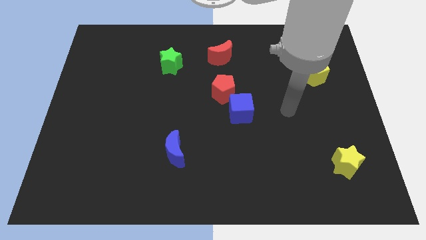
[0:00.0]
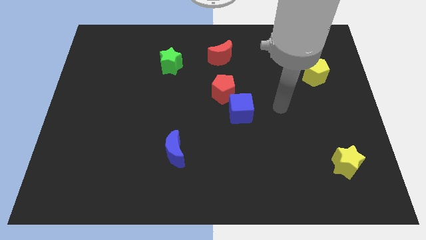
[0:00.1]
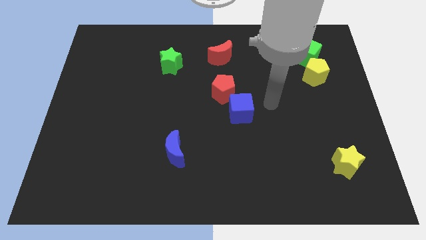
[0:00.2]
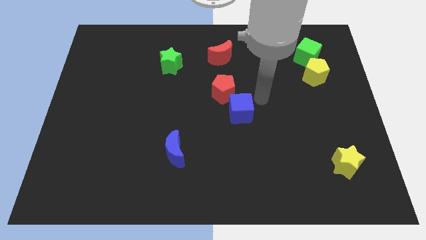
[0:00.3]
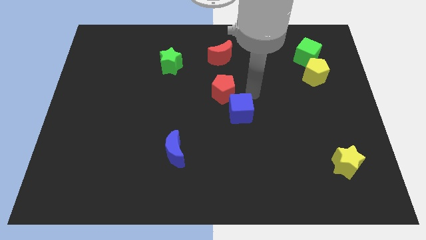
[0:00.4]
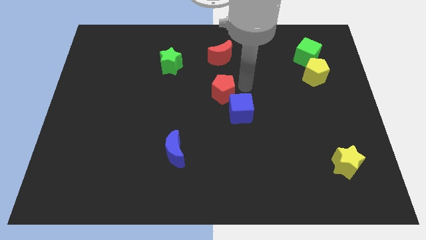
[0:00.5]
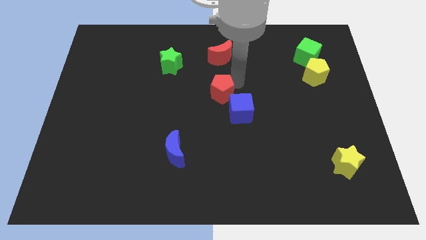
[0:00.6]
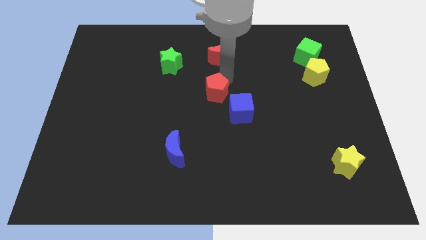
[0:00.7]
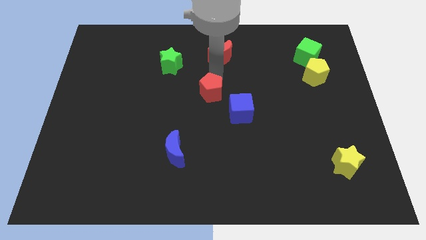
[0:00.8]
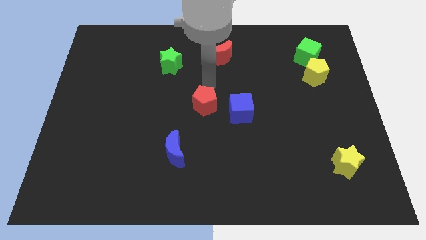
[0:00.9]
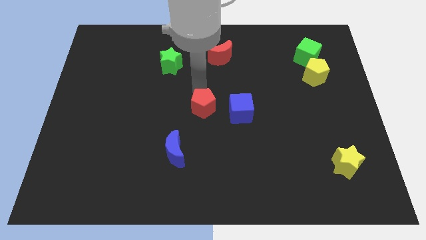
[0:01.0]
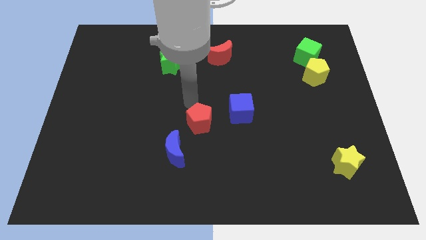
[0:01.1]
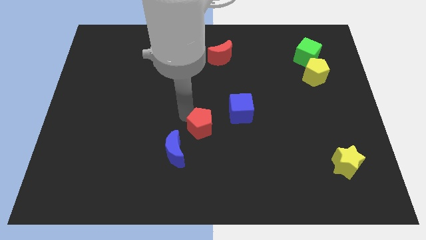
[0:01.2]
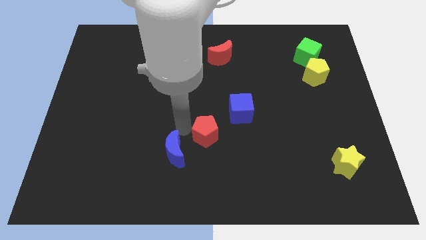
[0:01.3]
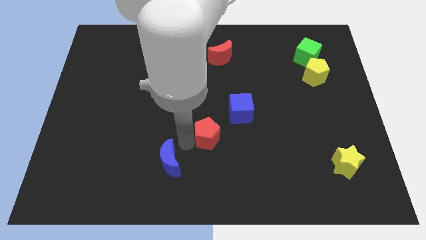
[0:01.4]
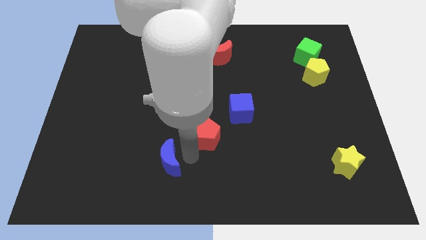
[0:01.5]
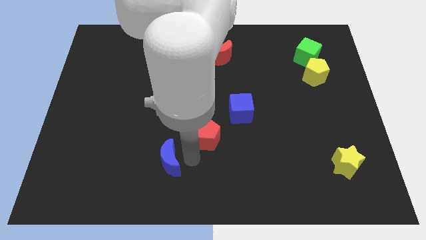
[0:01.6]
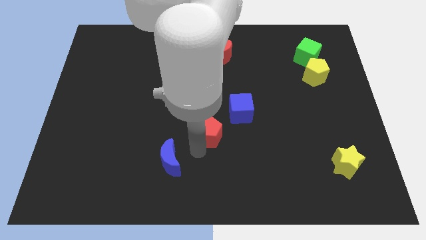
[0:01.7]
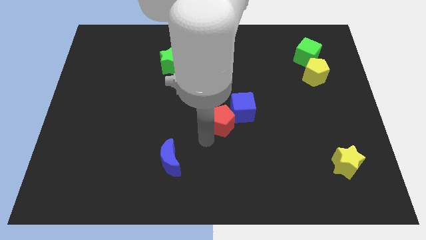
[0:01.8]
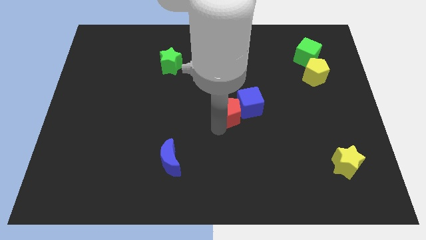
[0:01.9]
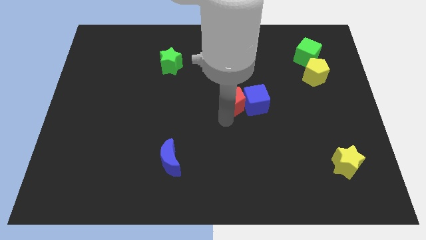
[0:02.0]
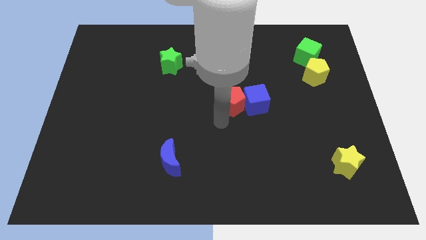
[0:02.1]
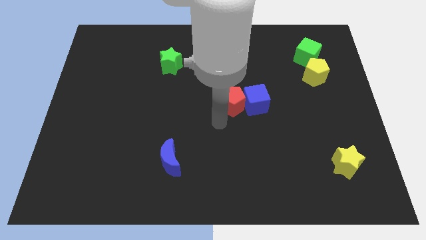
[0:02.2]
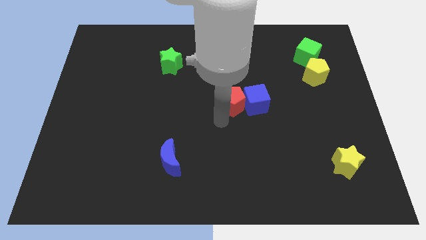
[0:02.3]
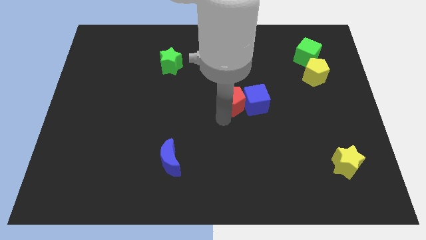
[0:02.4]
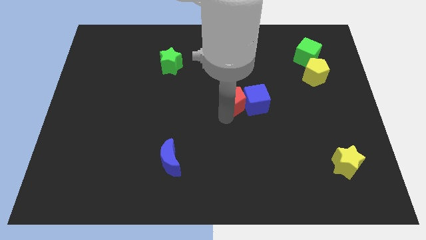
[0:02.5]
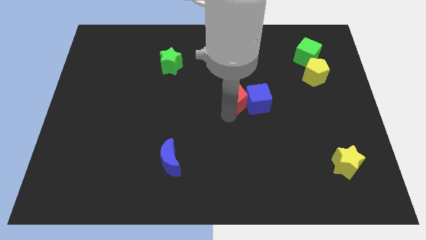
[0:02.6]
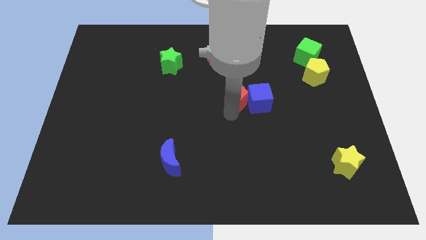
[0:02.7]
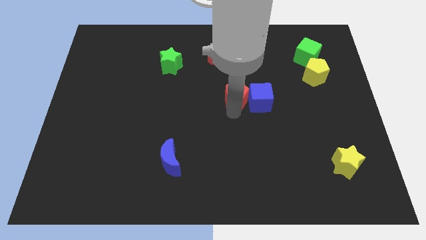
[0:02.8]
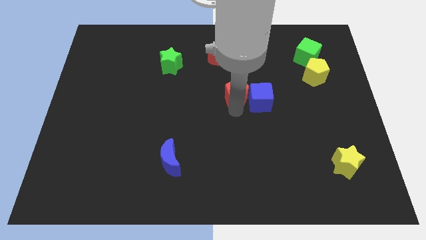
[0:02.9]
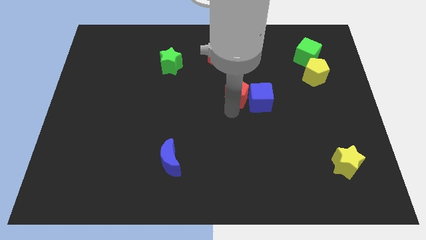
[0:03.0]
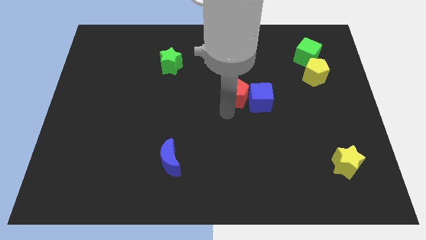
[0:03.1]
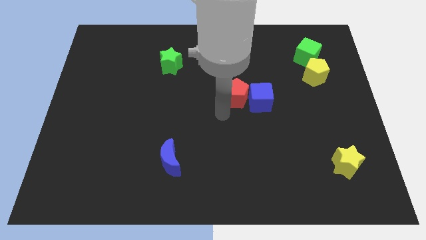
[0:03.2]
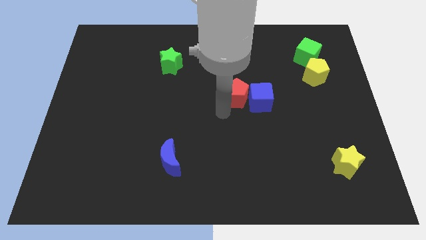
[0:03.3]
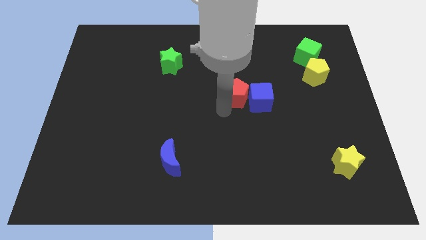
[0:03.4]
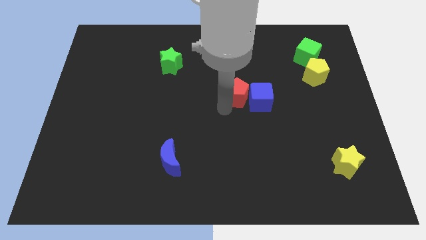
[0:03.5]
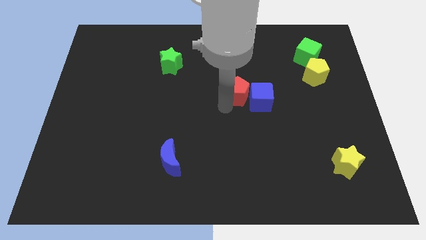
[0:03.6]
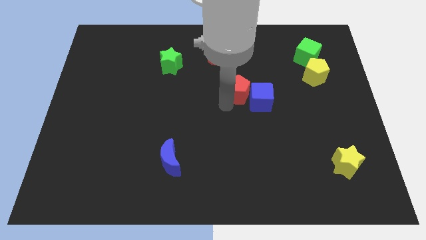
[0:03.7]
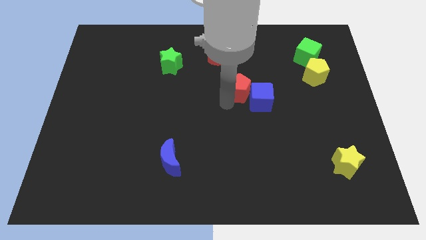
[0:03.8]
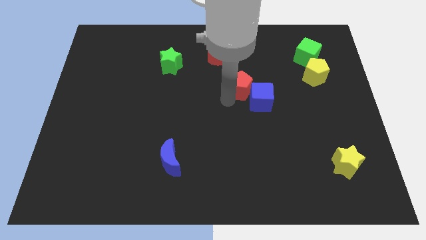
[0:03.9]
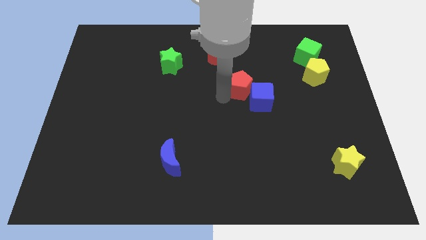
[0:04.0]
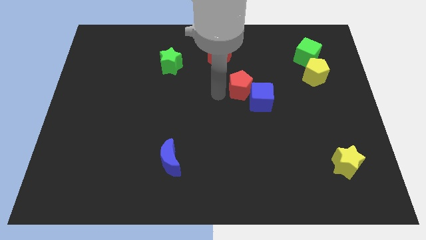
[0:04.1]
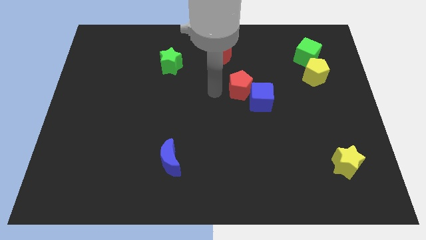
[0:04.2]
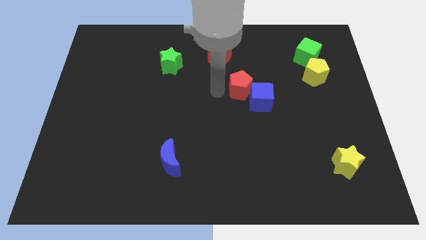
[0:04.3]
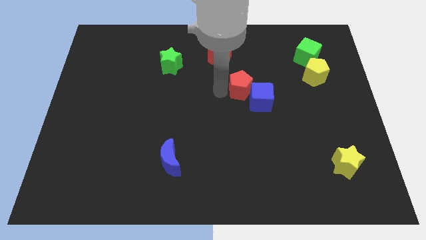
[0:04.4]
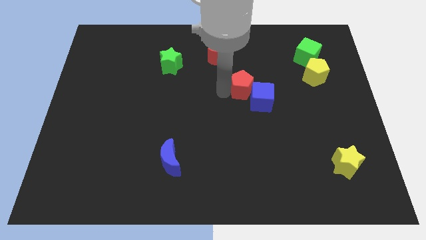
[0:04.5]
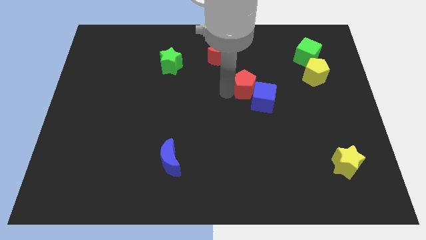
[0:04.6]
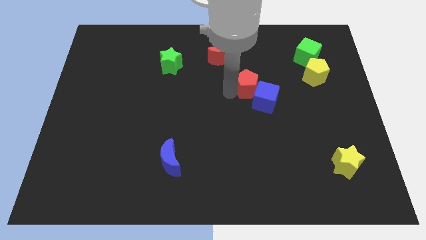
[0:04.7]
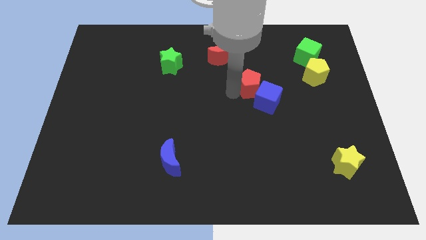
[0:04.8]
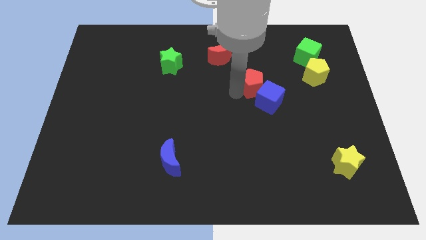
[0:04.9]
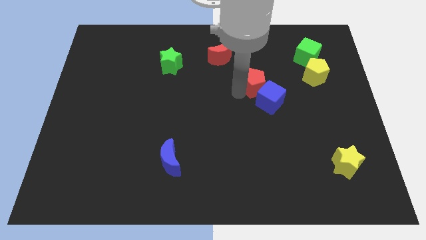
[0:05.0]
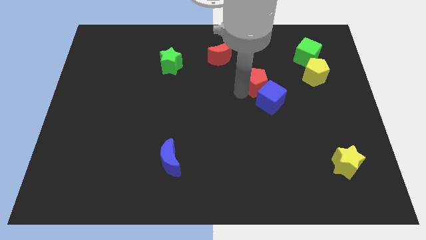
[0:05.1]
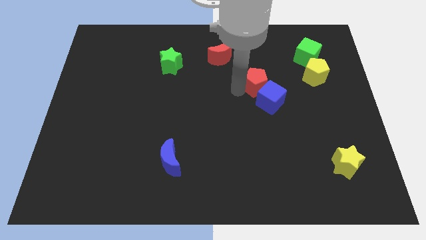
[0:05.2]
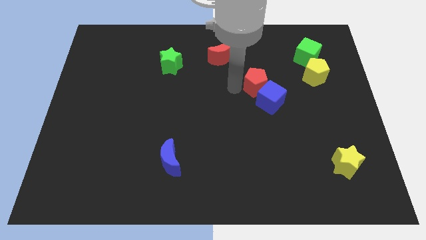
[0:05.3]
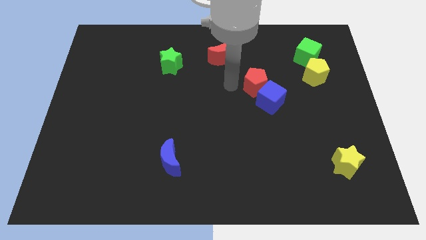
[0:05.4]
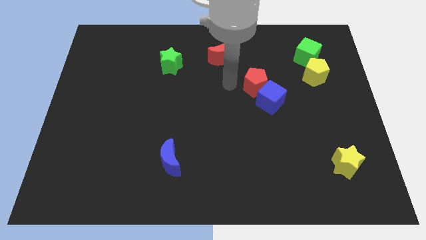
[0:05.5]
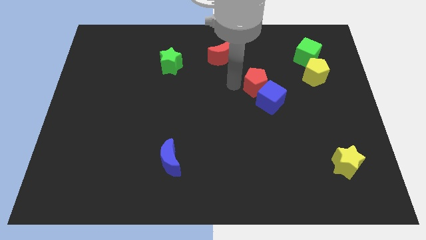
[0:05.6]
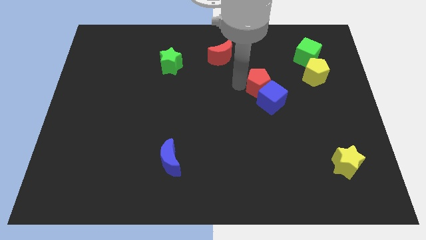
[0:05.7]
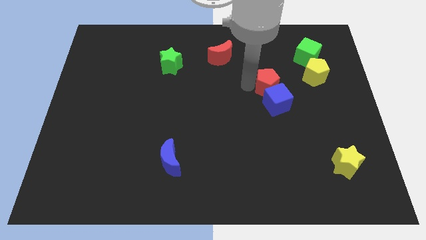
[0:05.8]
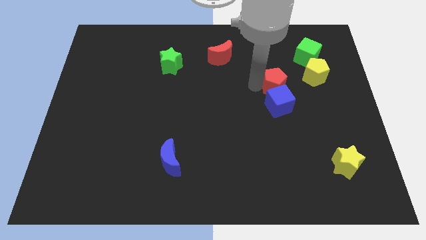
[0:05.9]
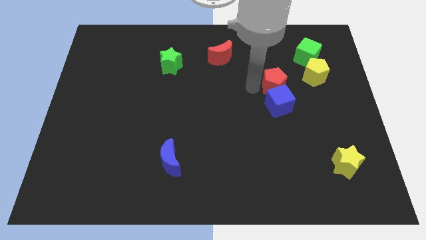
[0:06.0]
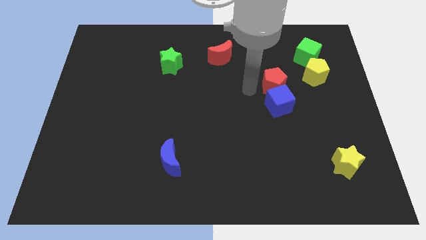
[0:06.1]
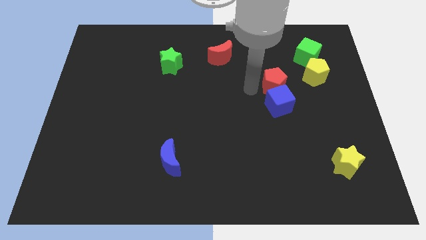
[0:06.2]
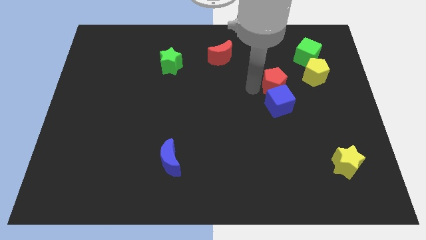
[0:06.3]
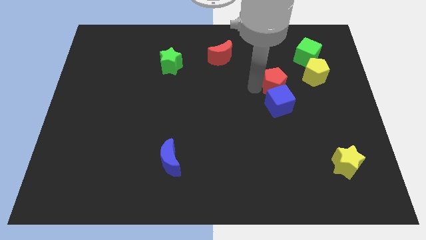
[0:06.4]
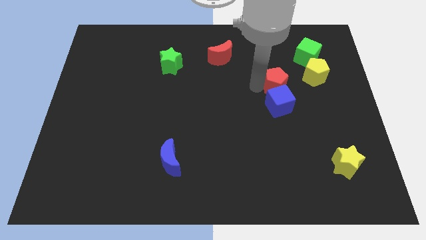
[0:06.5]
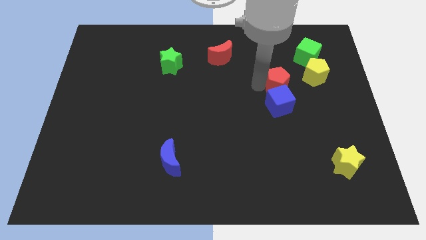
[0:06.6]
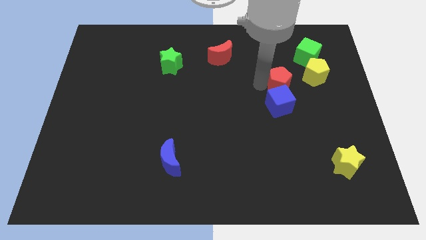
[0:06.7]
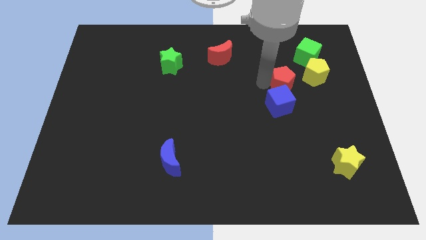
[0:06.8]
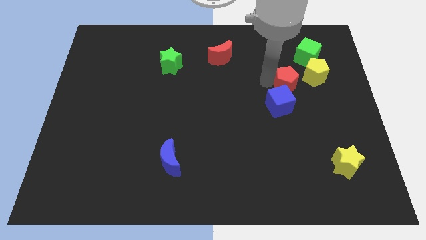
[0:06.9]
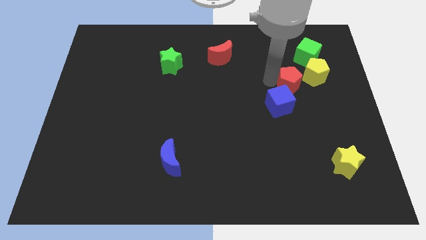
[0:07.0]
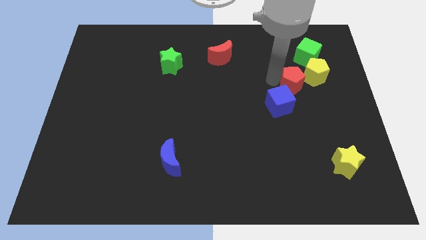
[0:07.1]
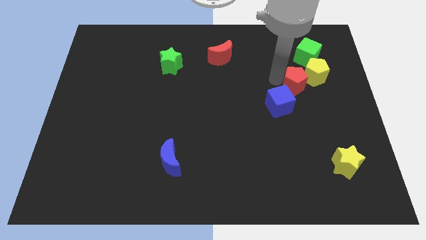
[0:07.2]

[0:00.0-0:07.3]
move the red pentagon towards the yellow pentagon

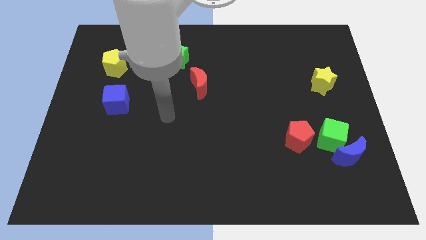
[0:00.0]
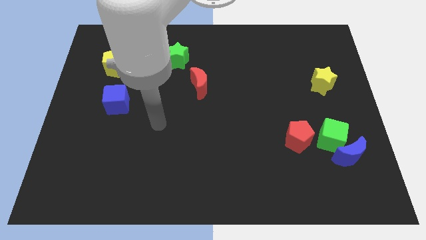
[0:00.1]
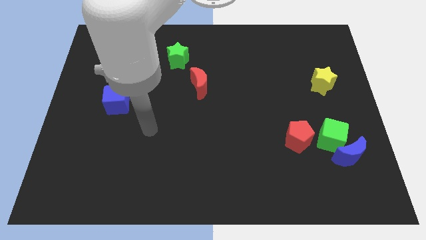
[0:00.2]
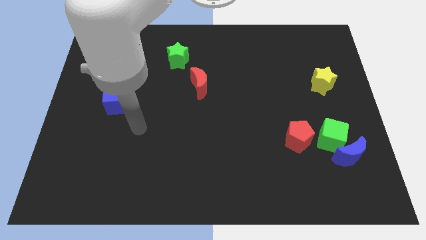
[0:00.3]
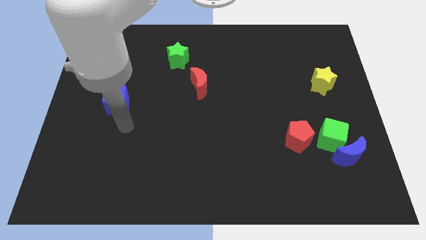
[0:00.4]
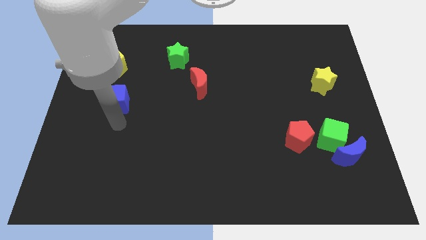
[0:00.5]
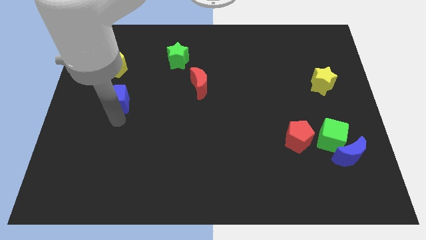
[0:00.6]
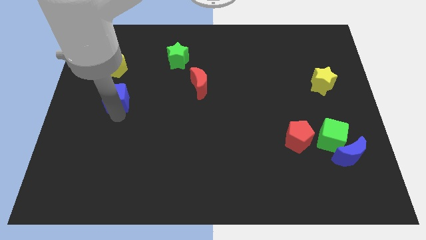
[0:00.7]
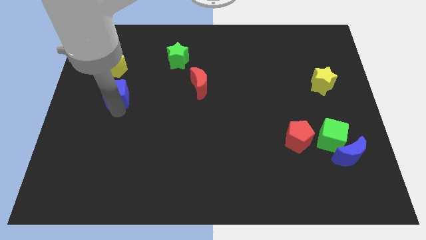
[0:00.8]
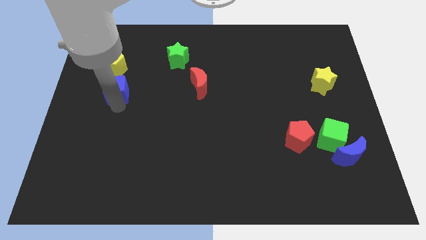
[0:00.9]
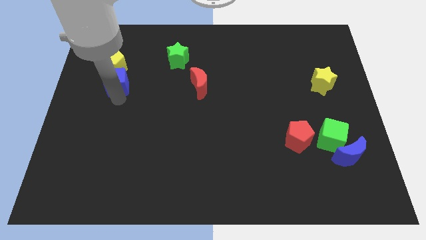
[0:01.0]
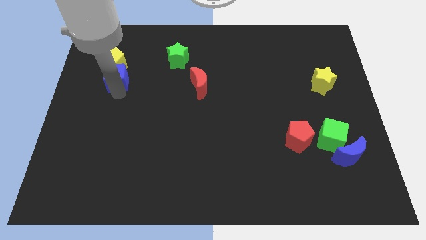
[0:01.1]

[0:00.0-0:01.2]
move the blue cube towards the yellow pentagon
